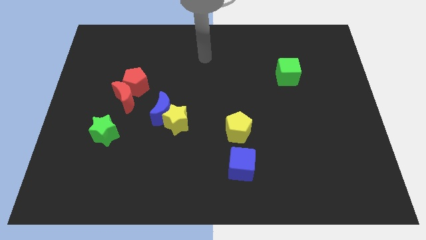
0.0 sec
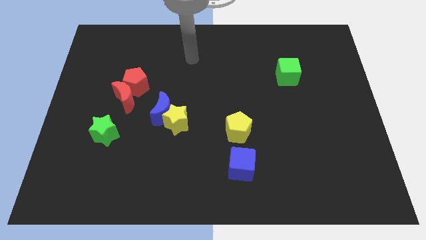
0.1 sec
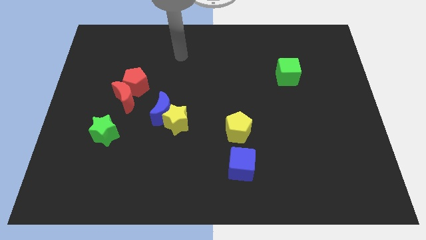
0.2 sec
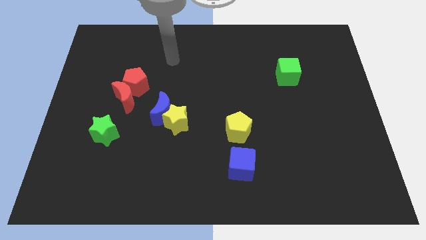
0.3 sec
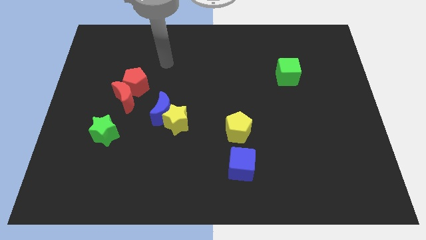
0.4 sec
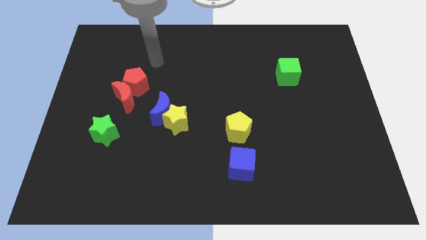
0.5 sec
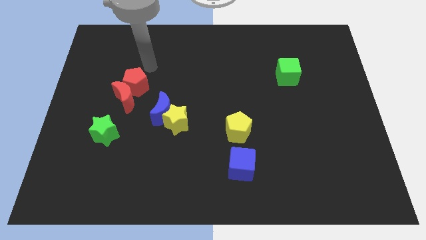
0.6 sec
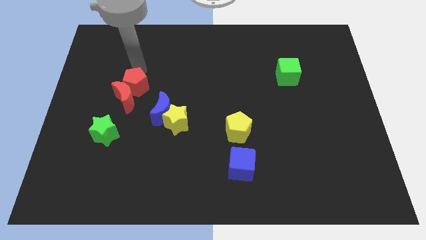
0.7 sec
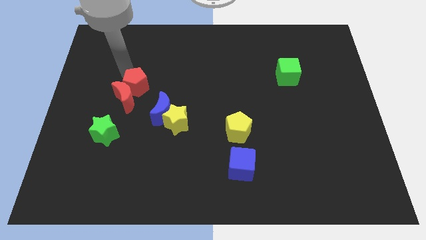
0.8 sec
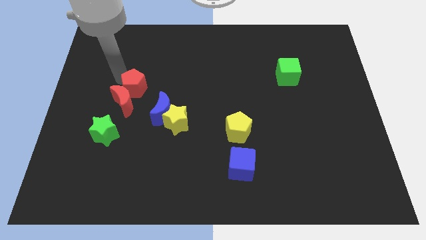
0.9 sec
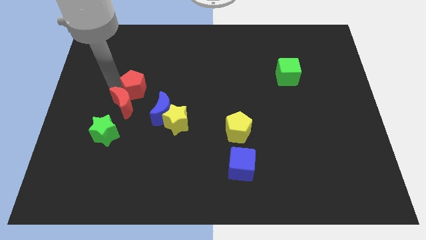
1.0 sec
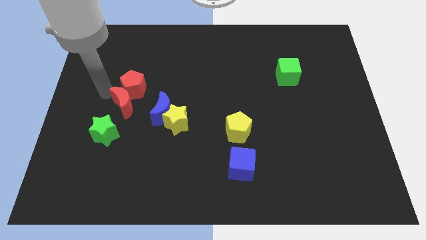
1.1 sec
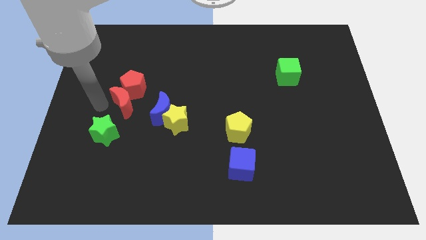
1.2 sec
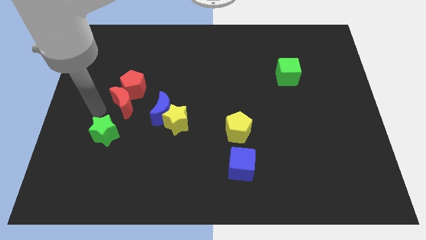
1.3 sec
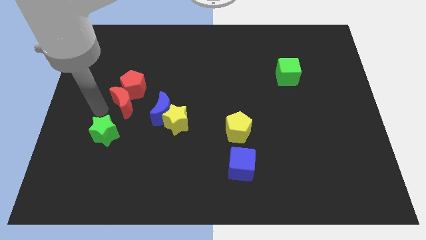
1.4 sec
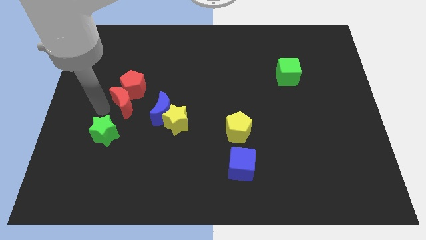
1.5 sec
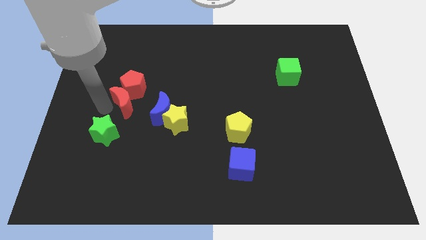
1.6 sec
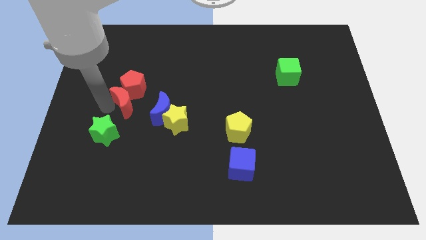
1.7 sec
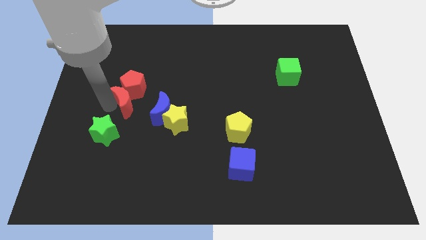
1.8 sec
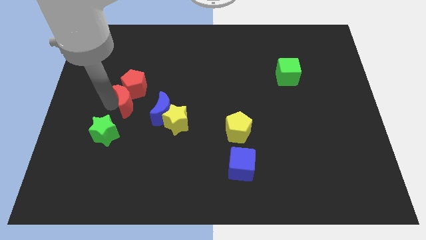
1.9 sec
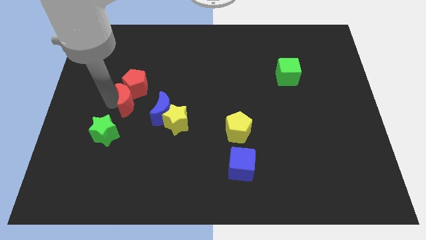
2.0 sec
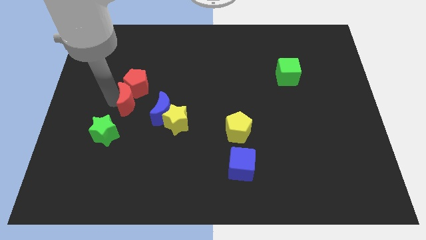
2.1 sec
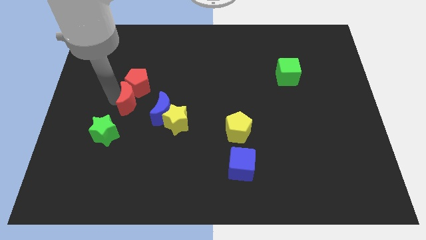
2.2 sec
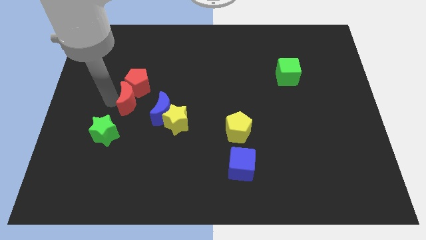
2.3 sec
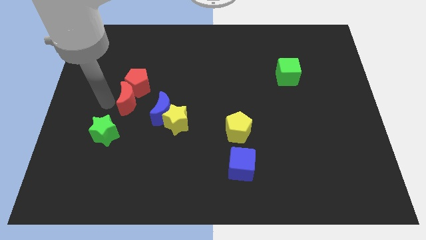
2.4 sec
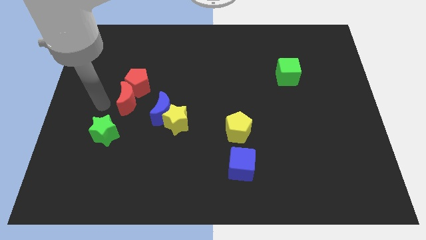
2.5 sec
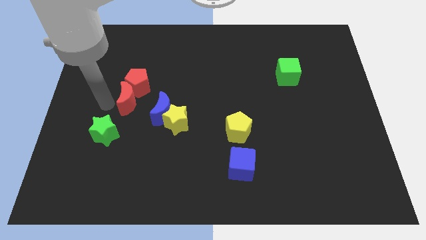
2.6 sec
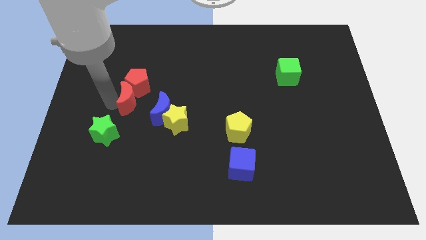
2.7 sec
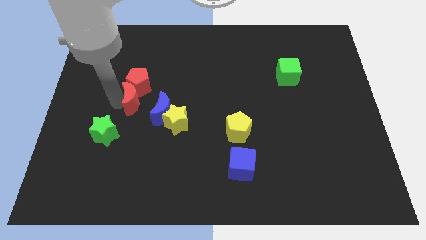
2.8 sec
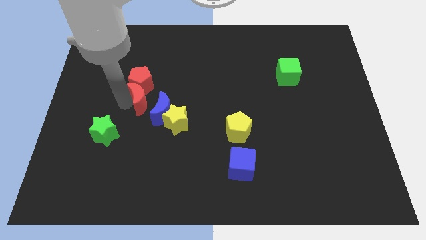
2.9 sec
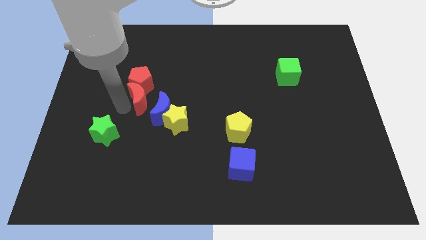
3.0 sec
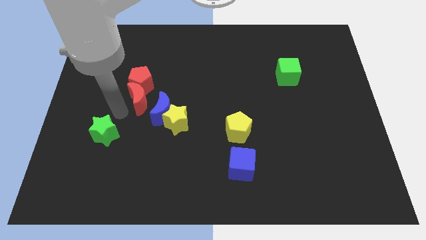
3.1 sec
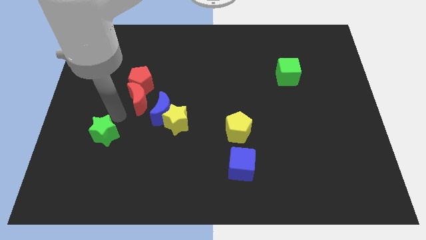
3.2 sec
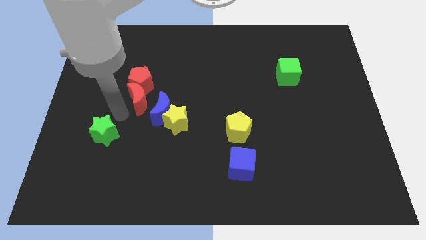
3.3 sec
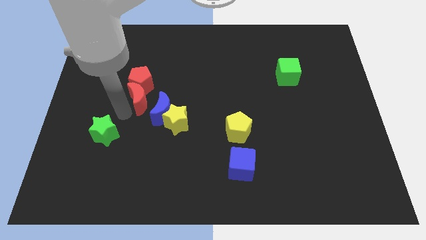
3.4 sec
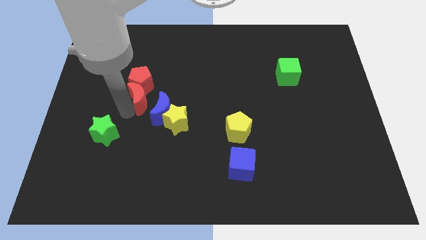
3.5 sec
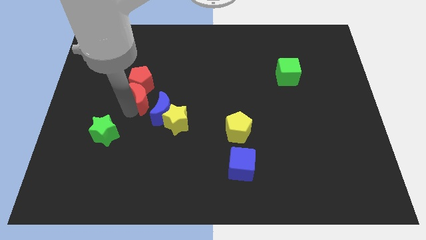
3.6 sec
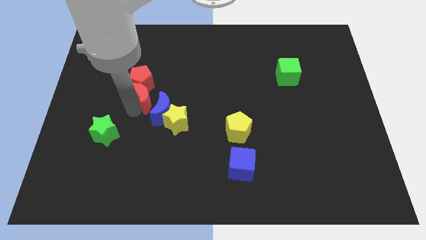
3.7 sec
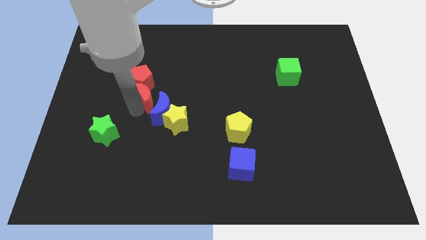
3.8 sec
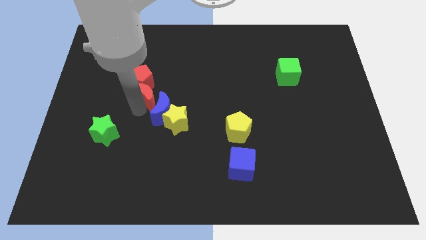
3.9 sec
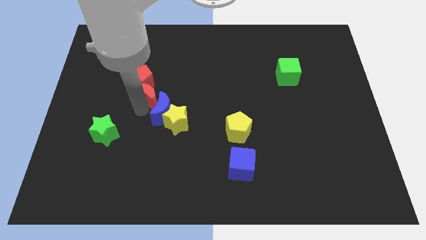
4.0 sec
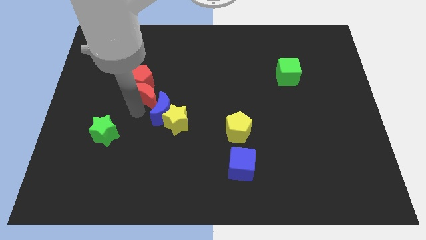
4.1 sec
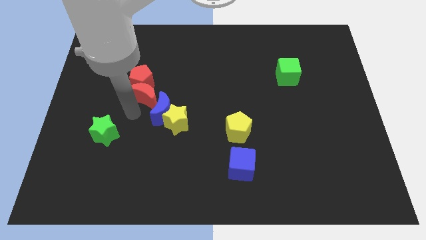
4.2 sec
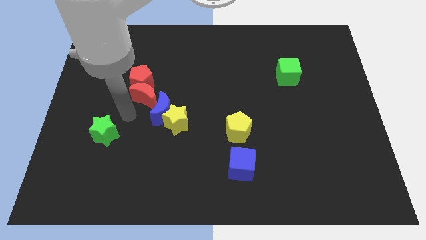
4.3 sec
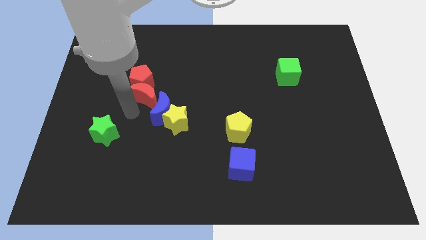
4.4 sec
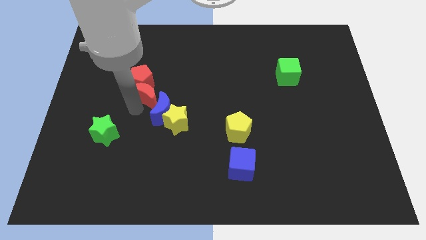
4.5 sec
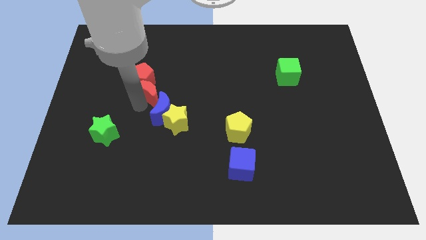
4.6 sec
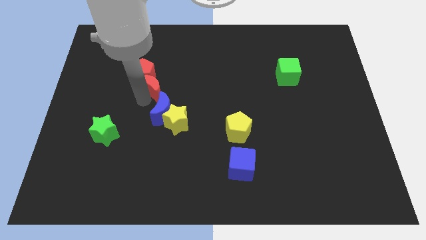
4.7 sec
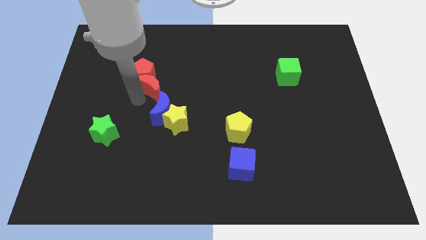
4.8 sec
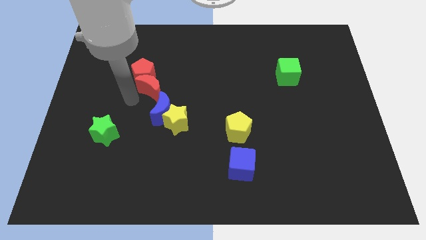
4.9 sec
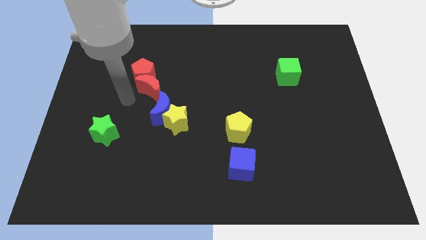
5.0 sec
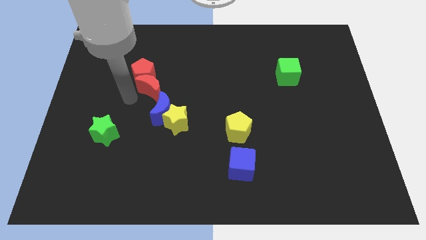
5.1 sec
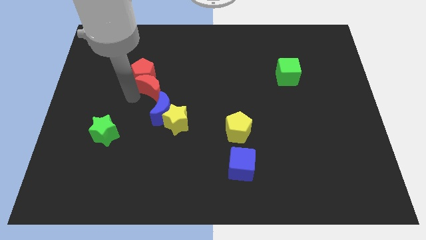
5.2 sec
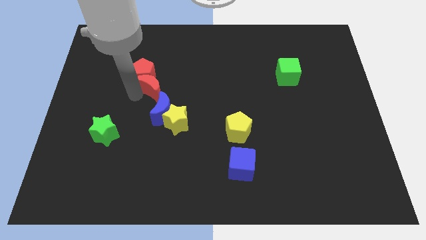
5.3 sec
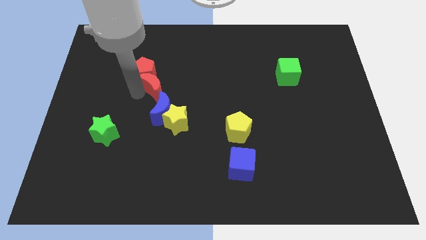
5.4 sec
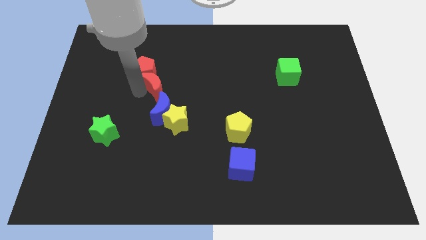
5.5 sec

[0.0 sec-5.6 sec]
slide the red moon a little upwards and right

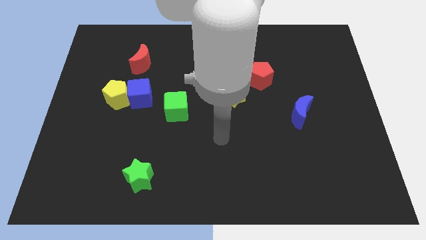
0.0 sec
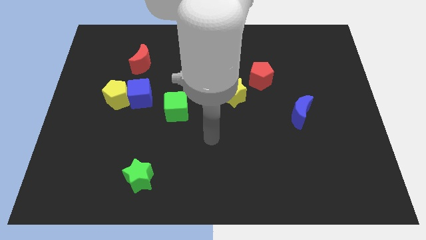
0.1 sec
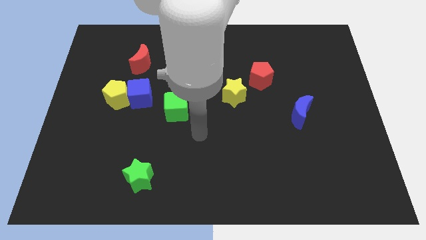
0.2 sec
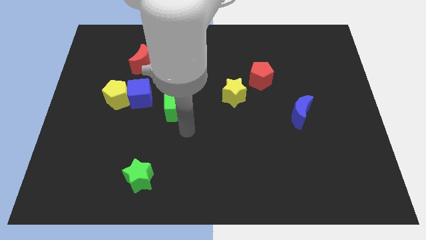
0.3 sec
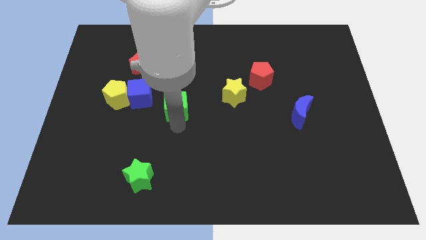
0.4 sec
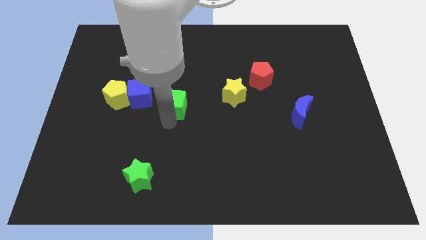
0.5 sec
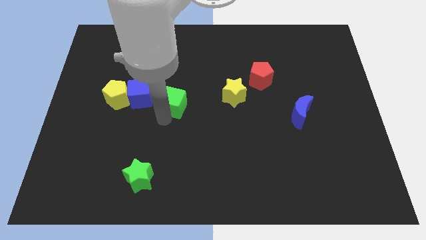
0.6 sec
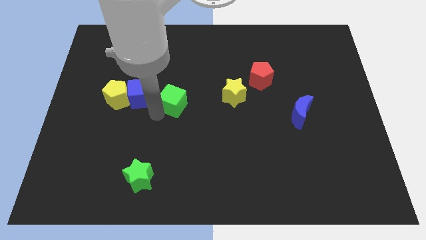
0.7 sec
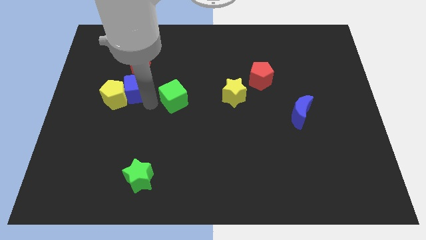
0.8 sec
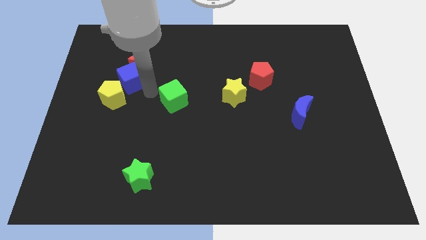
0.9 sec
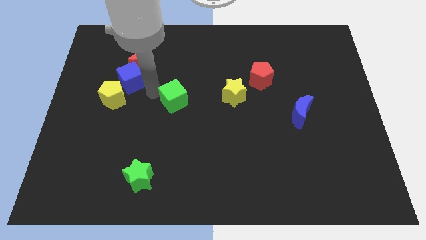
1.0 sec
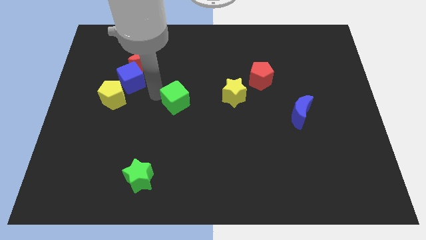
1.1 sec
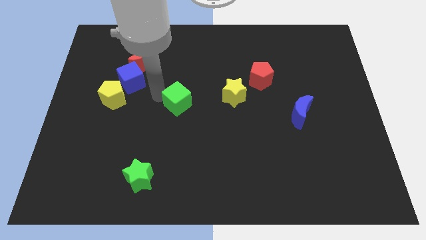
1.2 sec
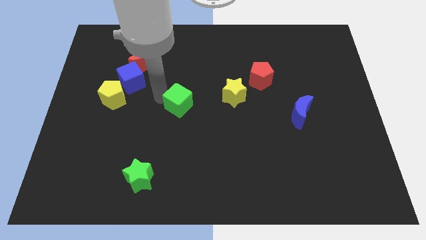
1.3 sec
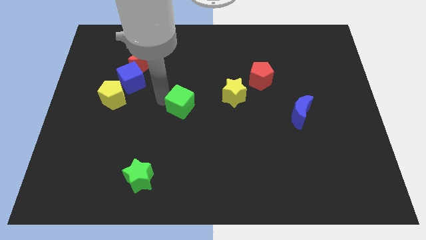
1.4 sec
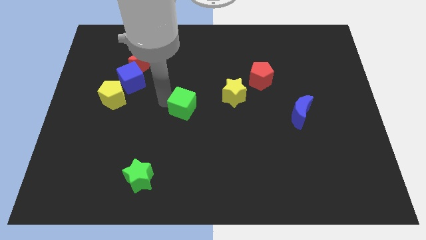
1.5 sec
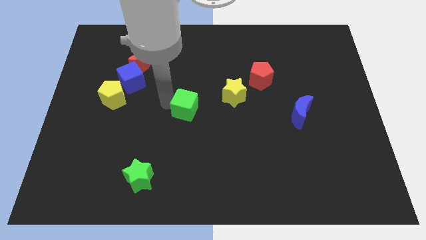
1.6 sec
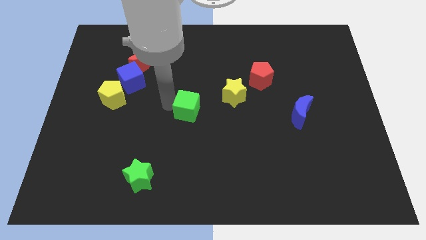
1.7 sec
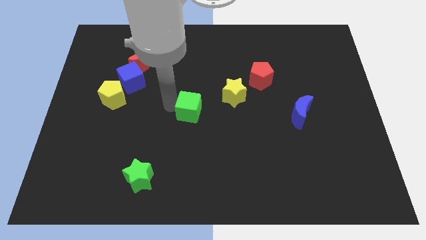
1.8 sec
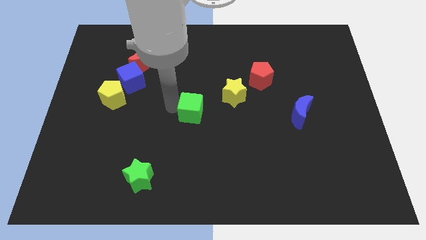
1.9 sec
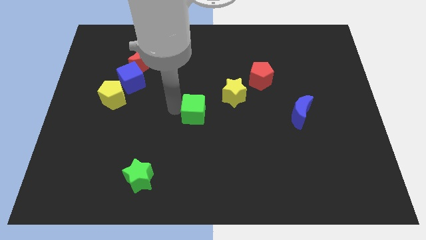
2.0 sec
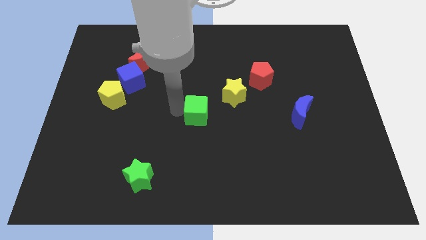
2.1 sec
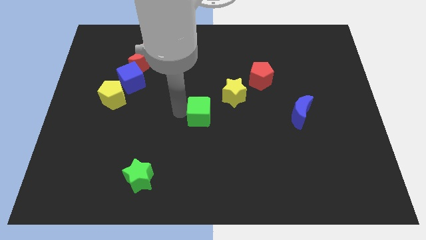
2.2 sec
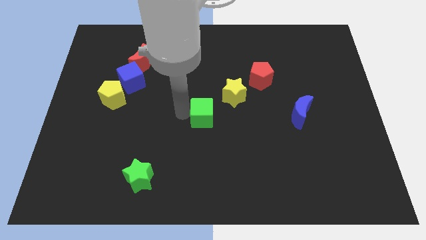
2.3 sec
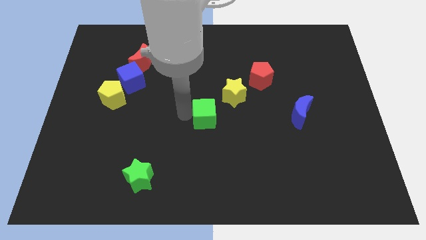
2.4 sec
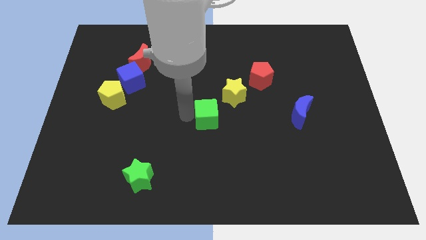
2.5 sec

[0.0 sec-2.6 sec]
slightly slide the green cube to the right
